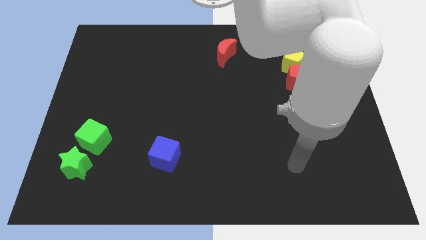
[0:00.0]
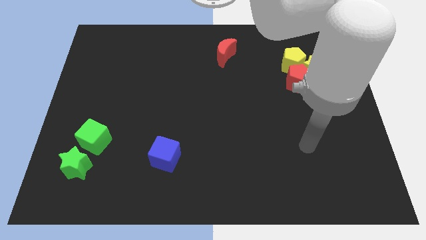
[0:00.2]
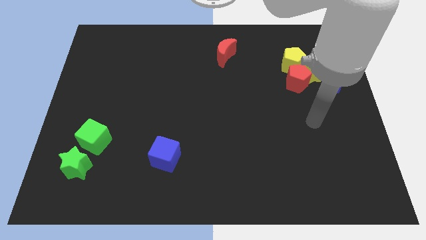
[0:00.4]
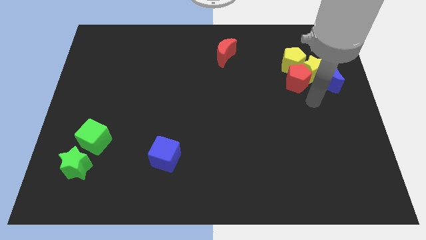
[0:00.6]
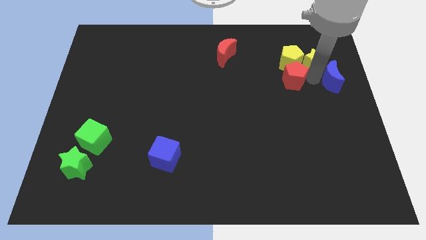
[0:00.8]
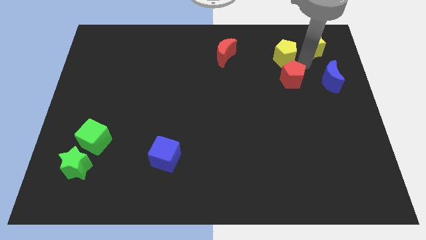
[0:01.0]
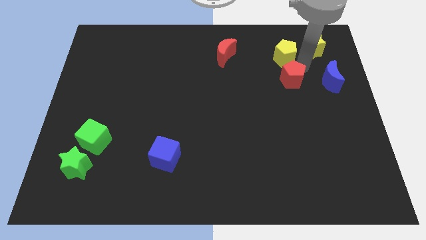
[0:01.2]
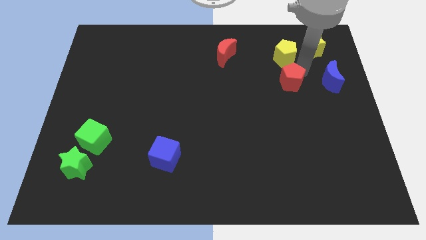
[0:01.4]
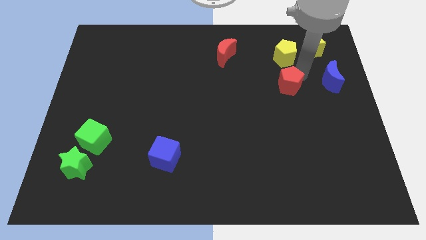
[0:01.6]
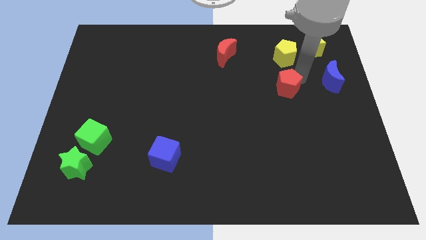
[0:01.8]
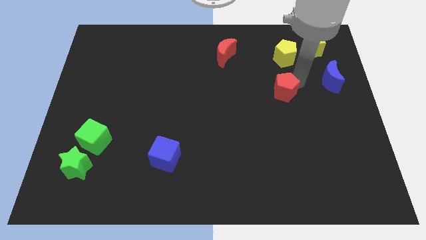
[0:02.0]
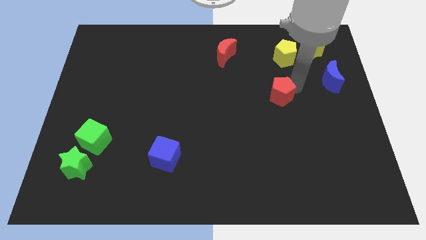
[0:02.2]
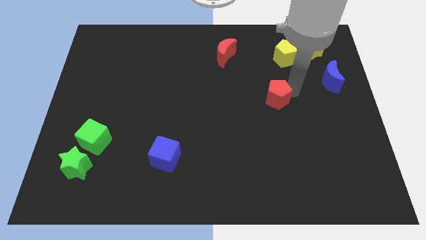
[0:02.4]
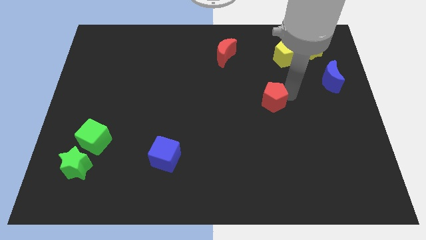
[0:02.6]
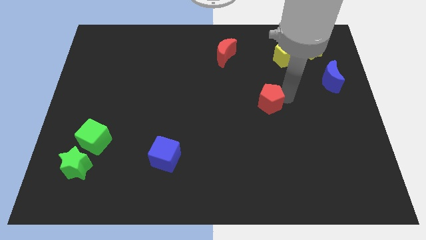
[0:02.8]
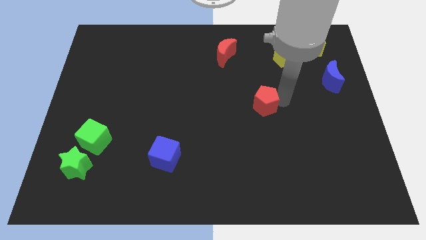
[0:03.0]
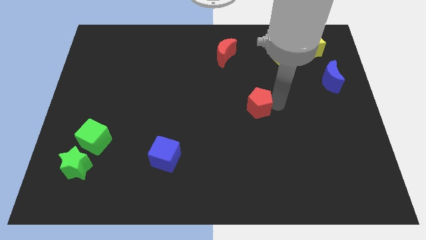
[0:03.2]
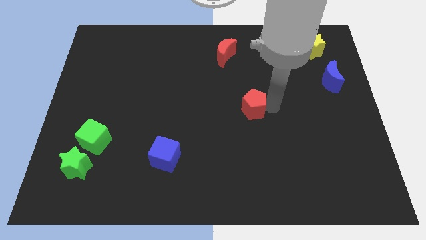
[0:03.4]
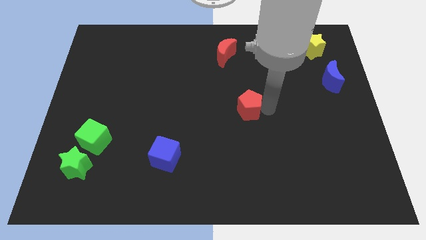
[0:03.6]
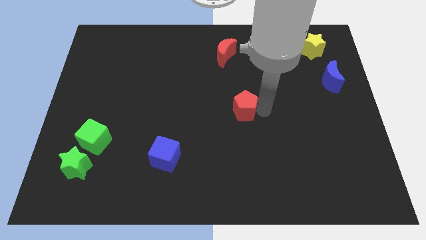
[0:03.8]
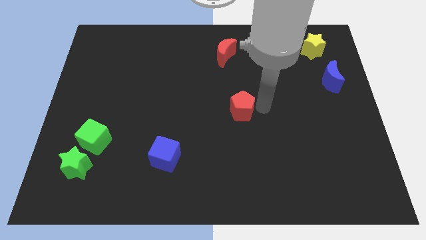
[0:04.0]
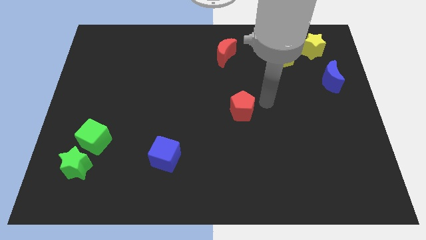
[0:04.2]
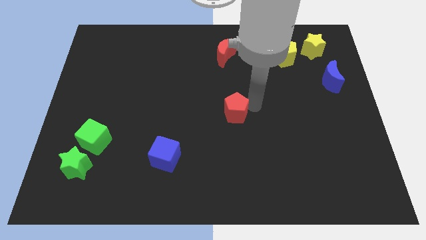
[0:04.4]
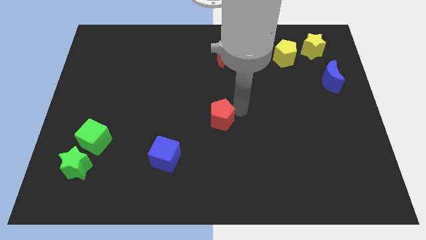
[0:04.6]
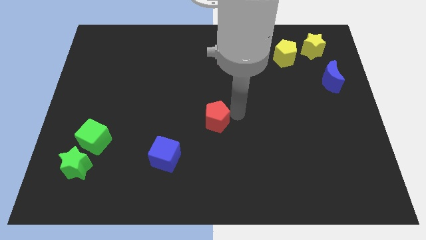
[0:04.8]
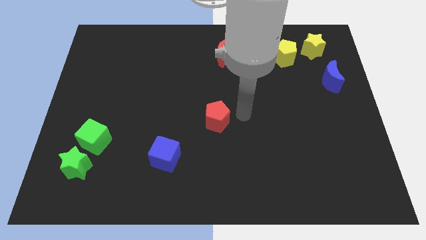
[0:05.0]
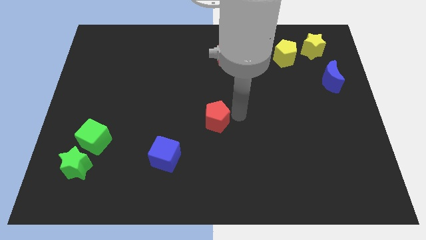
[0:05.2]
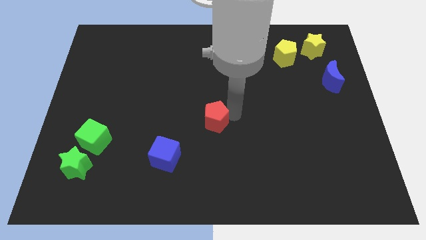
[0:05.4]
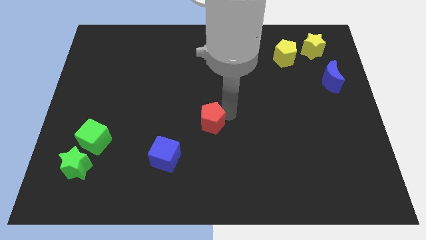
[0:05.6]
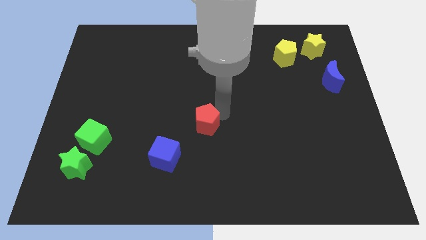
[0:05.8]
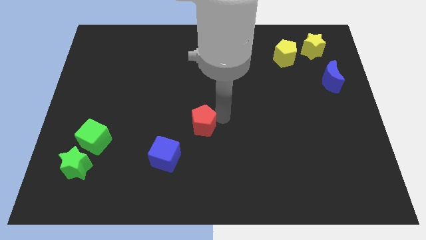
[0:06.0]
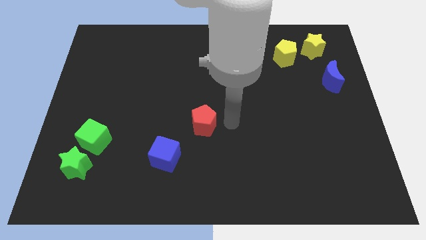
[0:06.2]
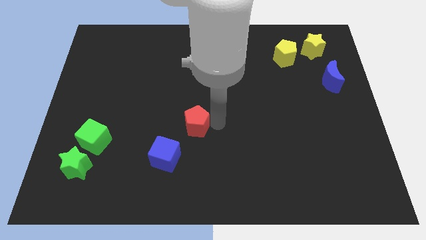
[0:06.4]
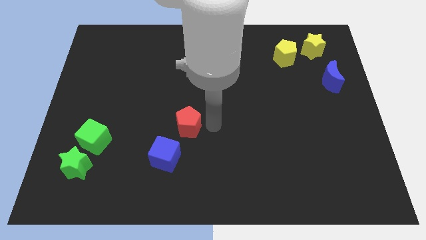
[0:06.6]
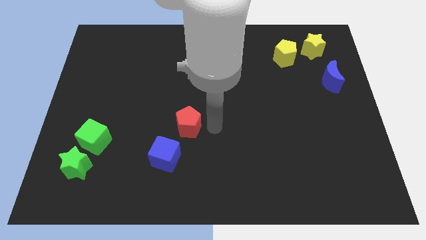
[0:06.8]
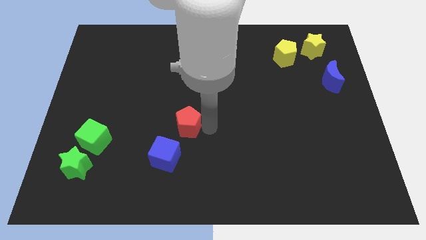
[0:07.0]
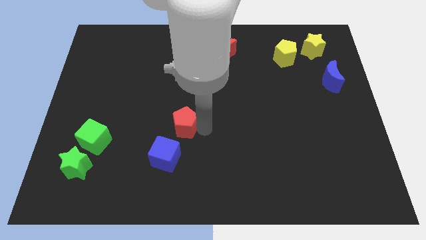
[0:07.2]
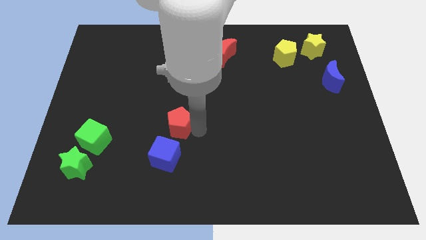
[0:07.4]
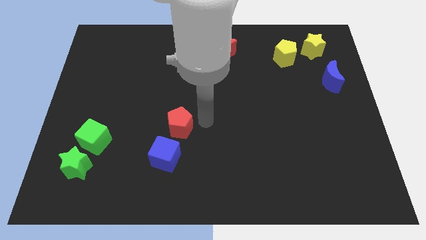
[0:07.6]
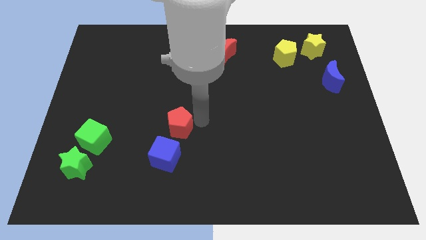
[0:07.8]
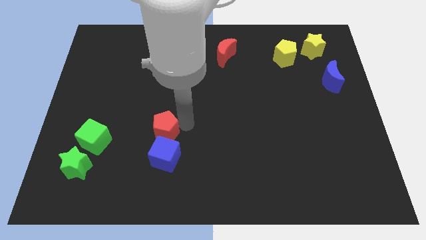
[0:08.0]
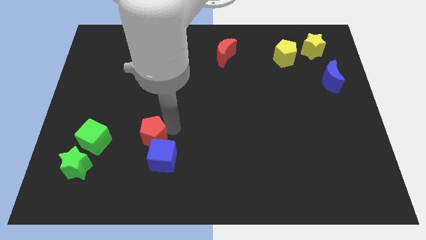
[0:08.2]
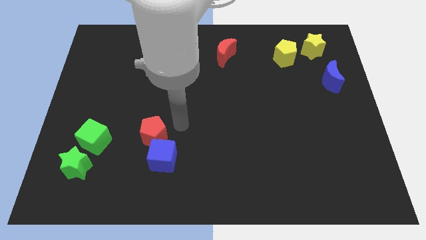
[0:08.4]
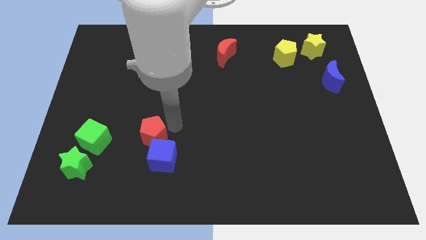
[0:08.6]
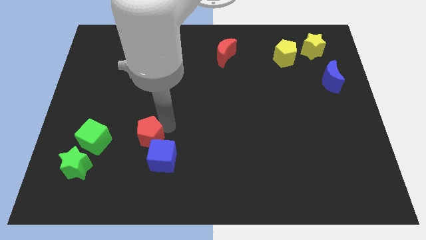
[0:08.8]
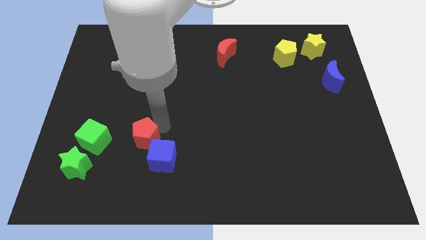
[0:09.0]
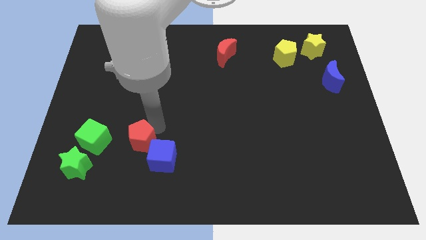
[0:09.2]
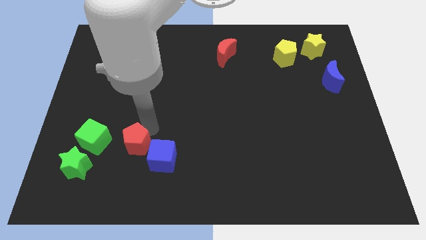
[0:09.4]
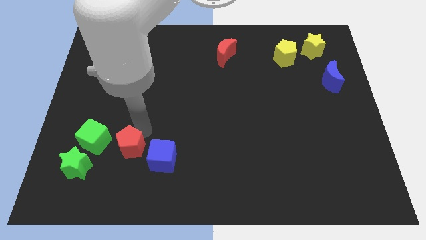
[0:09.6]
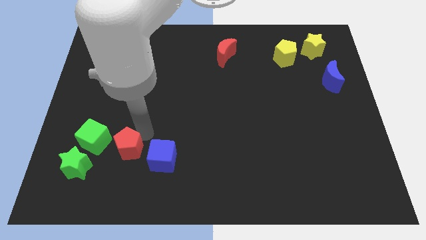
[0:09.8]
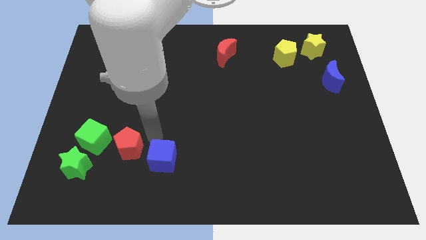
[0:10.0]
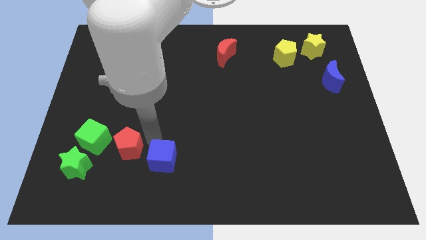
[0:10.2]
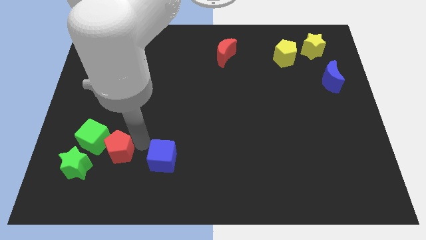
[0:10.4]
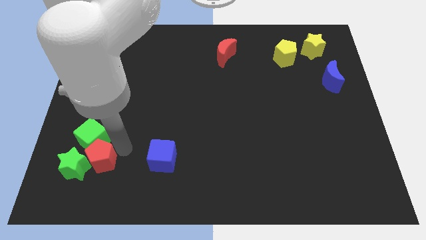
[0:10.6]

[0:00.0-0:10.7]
put the red pentagon close to the green star

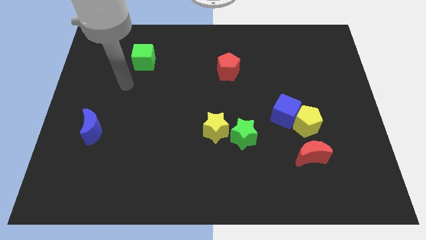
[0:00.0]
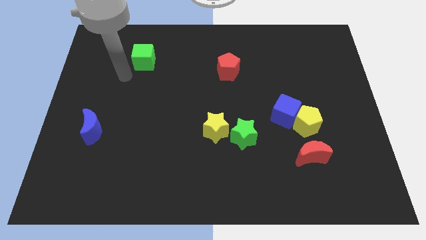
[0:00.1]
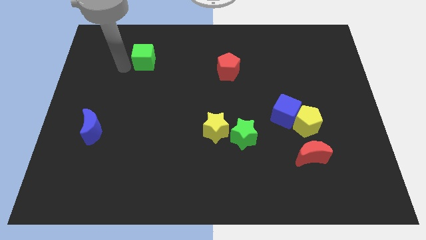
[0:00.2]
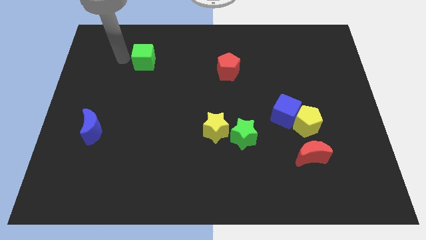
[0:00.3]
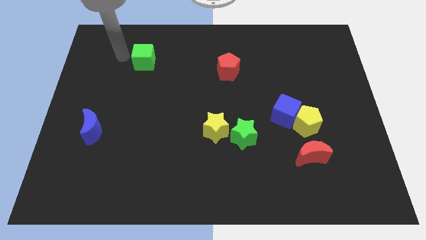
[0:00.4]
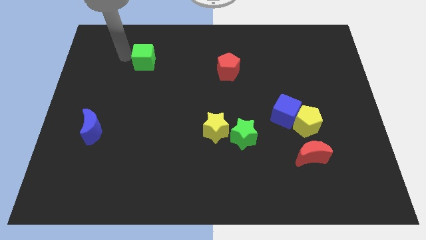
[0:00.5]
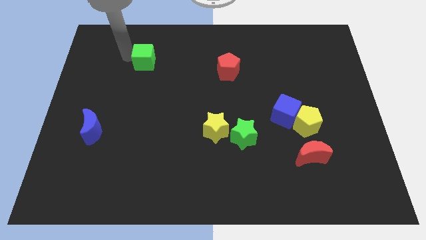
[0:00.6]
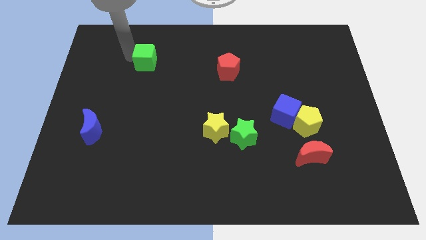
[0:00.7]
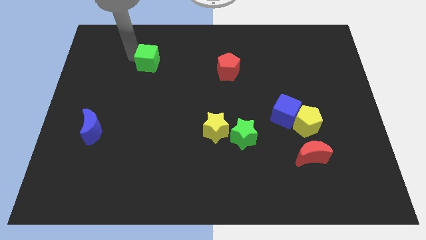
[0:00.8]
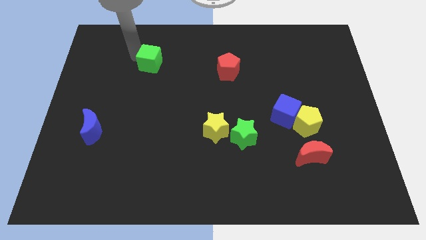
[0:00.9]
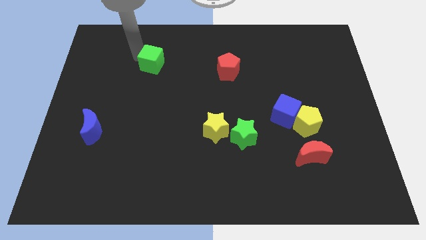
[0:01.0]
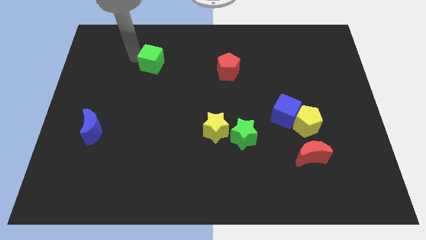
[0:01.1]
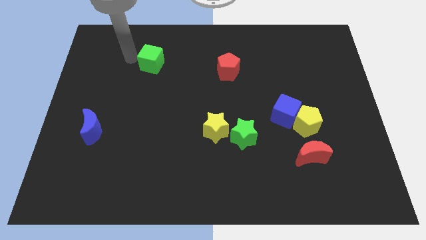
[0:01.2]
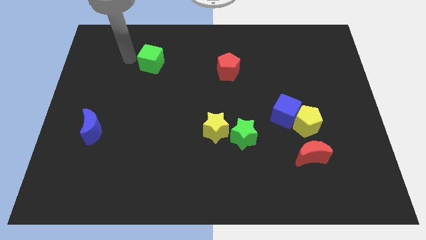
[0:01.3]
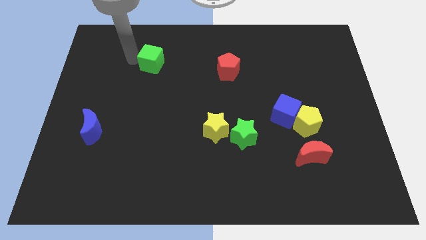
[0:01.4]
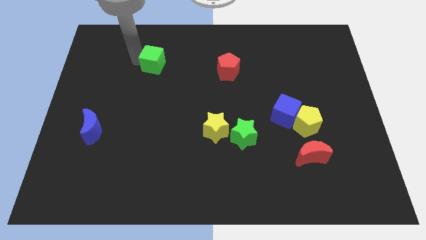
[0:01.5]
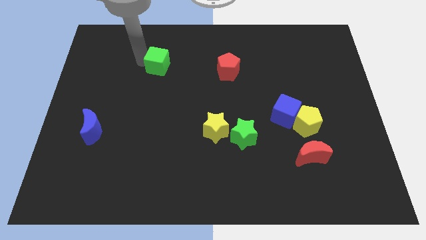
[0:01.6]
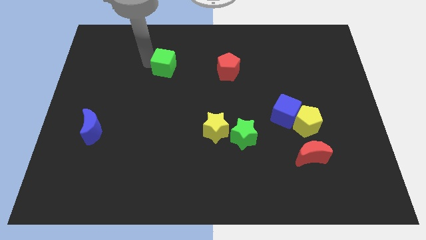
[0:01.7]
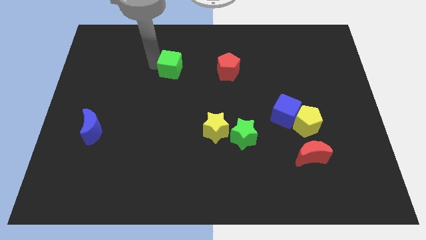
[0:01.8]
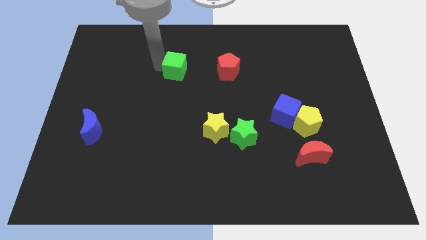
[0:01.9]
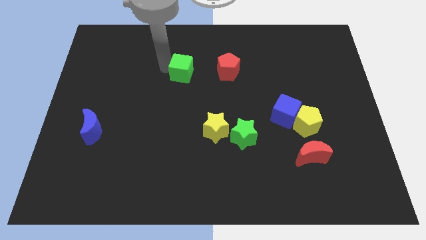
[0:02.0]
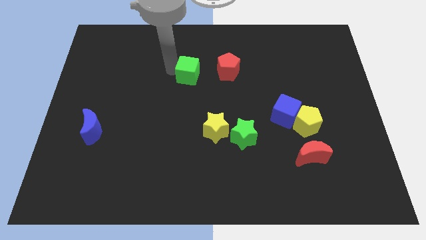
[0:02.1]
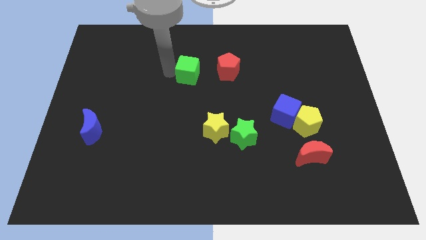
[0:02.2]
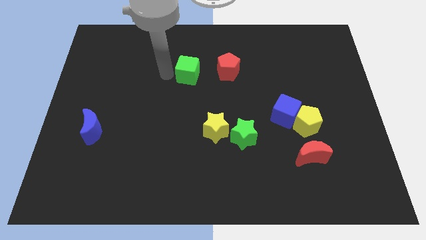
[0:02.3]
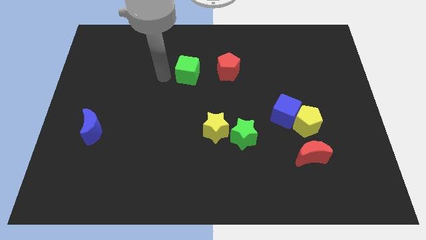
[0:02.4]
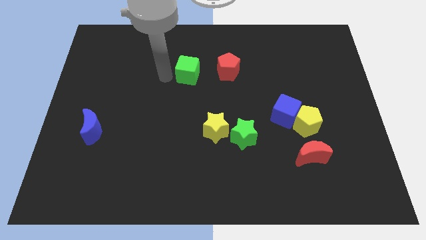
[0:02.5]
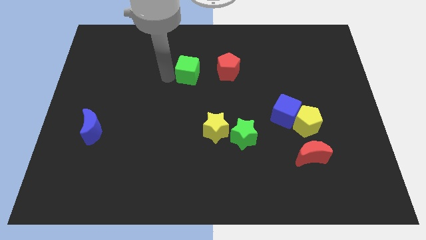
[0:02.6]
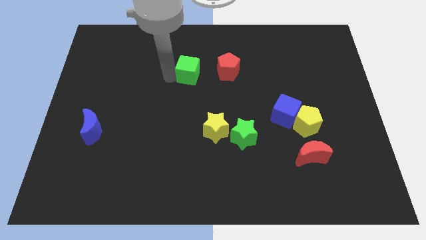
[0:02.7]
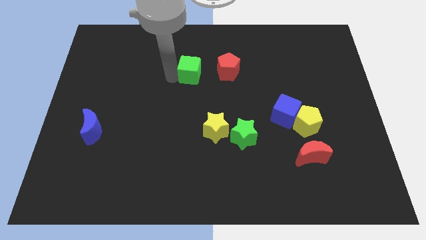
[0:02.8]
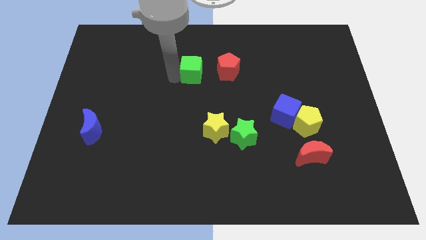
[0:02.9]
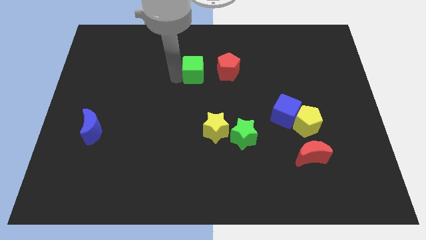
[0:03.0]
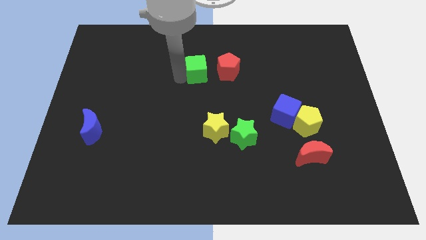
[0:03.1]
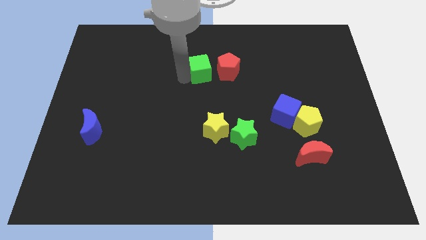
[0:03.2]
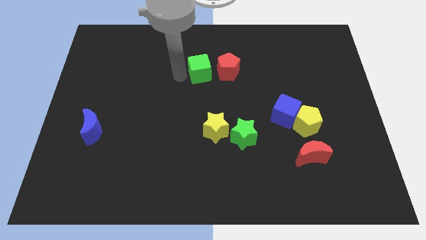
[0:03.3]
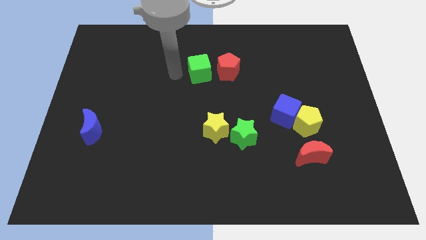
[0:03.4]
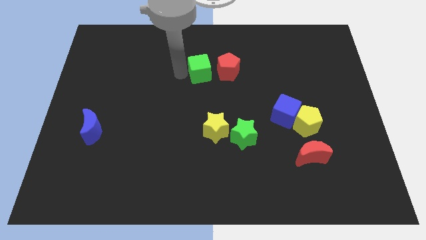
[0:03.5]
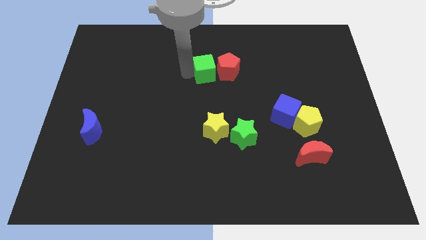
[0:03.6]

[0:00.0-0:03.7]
put the green cube close to the red pentagon
